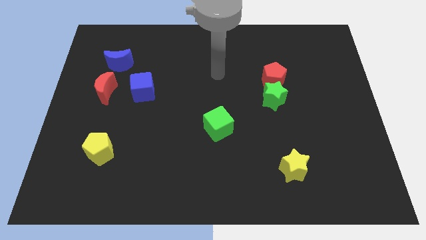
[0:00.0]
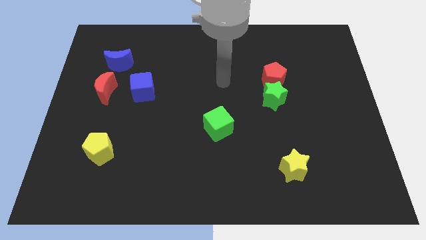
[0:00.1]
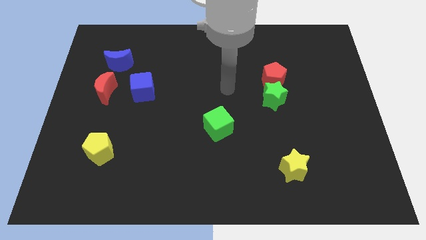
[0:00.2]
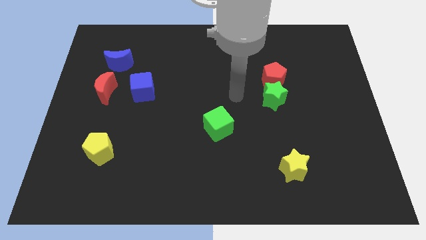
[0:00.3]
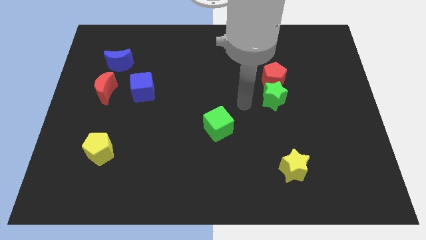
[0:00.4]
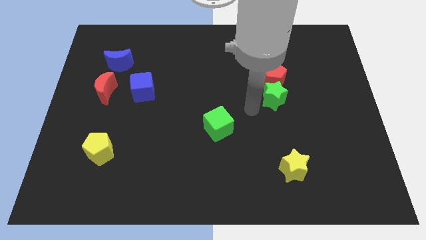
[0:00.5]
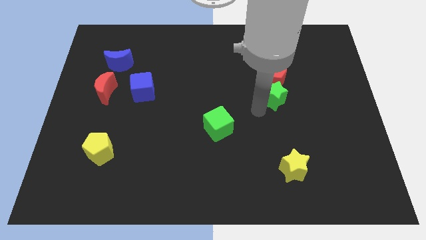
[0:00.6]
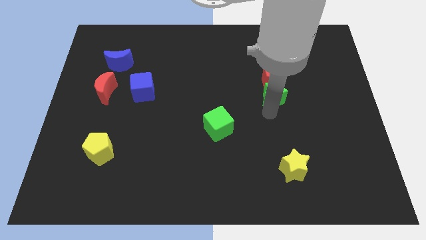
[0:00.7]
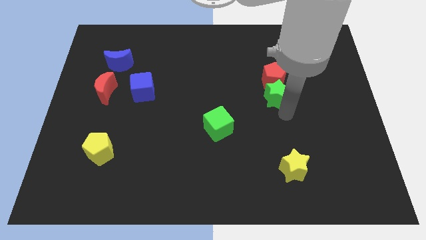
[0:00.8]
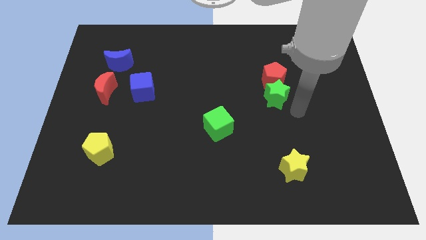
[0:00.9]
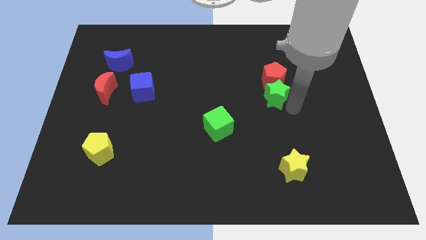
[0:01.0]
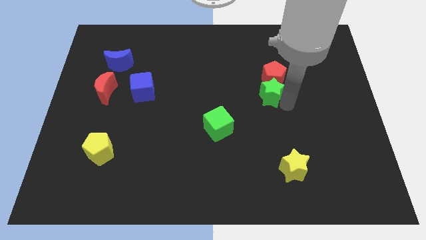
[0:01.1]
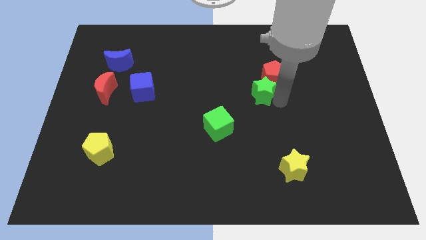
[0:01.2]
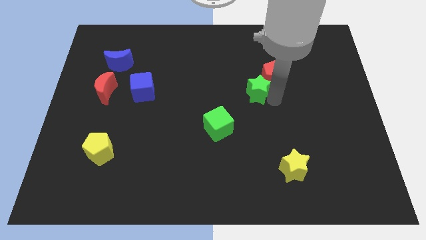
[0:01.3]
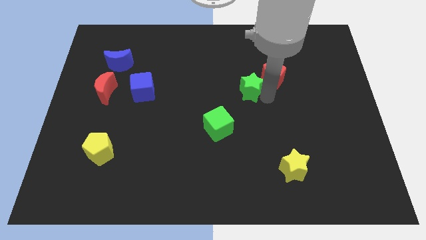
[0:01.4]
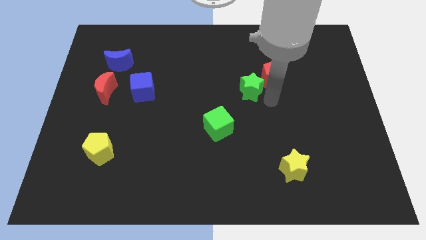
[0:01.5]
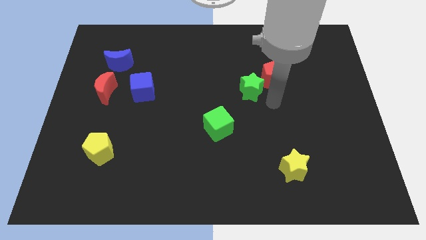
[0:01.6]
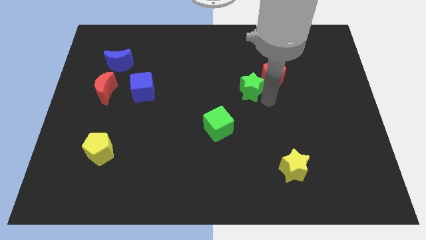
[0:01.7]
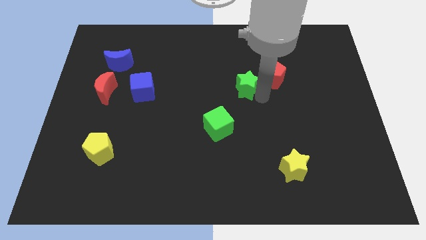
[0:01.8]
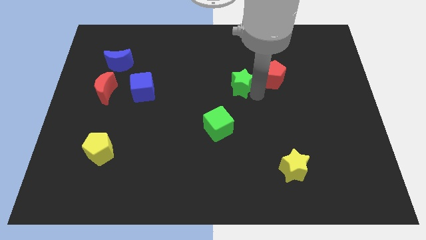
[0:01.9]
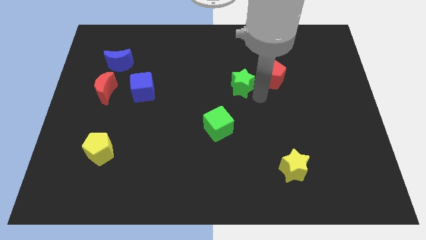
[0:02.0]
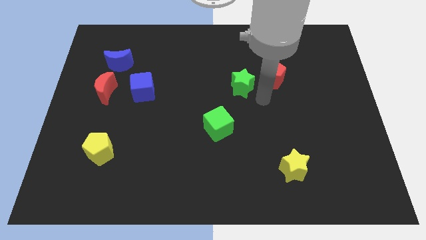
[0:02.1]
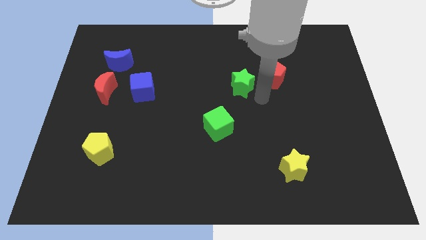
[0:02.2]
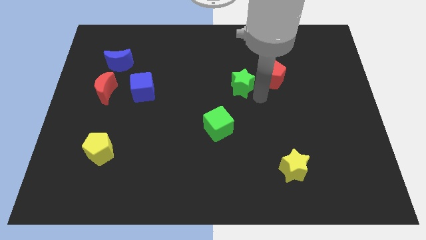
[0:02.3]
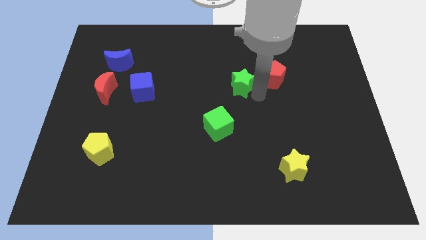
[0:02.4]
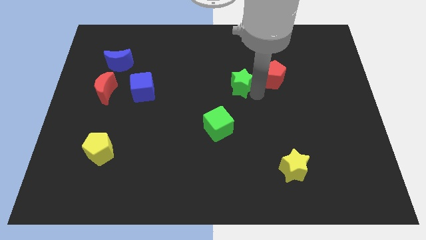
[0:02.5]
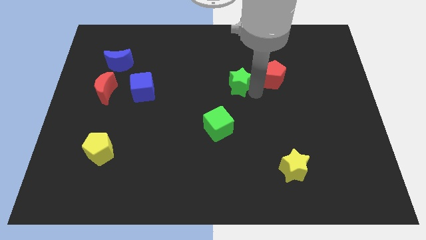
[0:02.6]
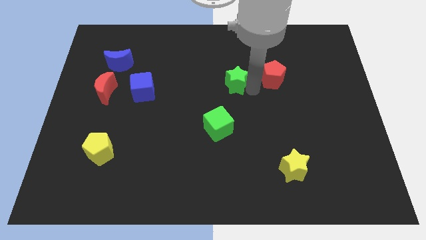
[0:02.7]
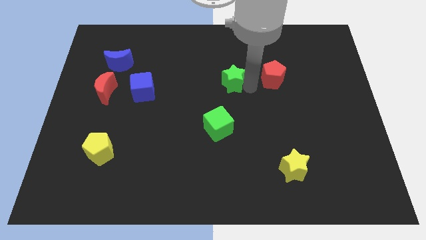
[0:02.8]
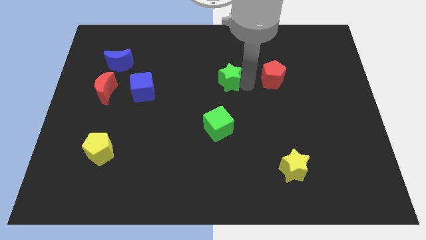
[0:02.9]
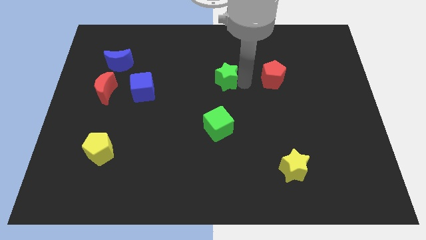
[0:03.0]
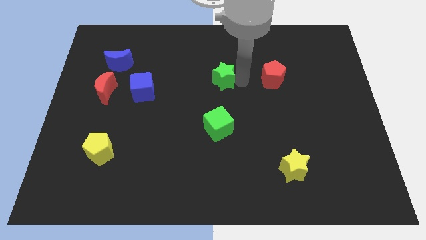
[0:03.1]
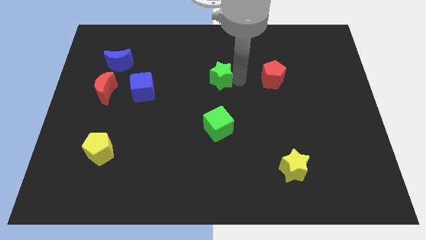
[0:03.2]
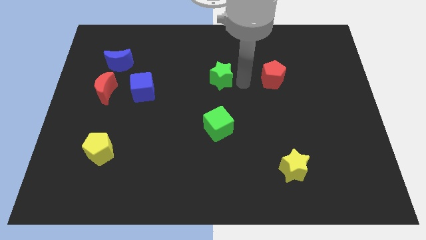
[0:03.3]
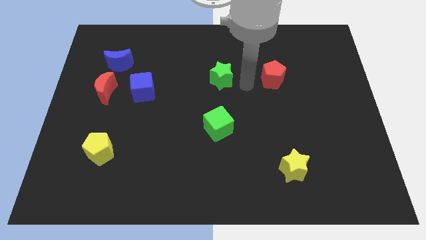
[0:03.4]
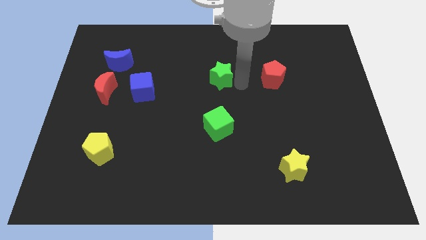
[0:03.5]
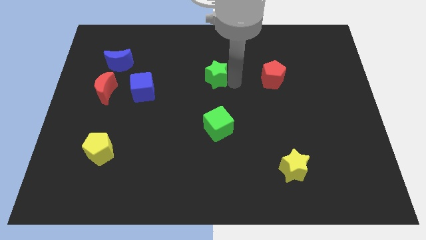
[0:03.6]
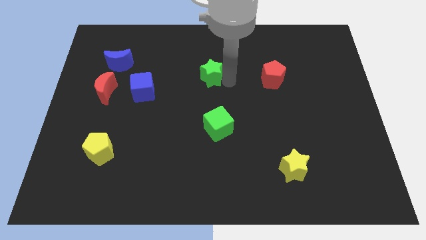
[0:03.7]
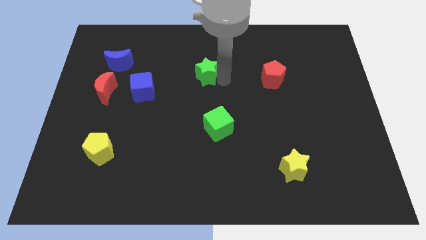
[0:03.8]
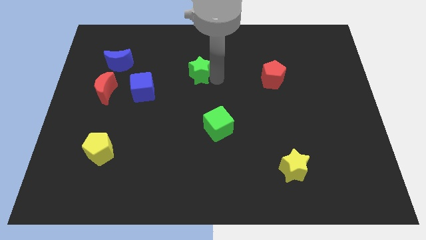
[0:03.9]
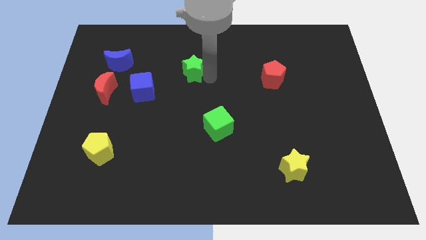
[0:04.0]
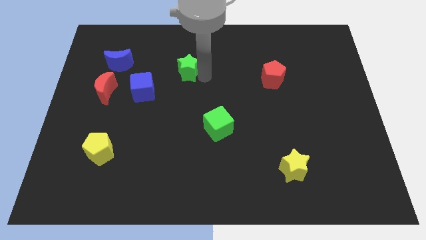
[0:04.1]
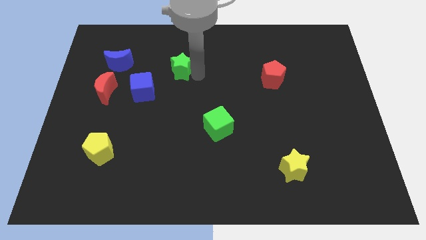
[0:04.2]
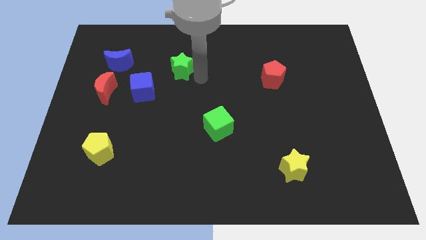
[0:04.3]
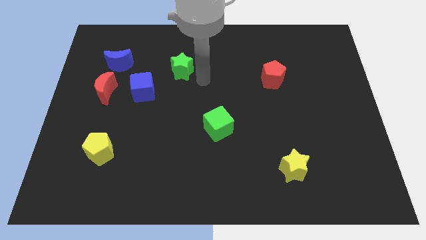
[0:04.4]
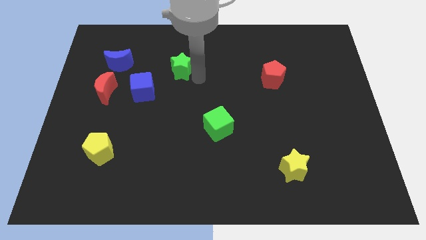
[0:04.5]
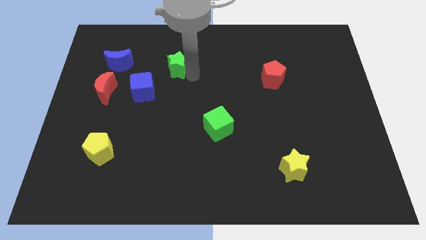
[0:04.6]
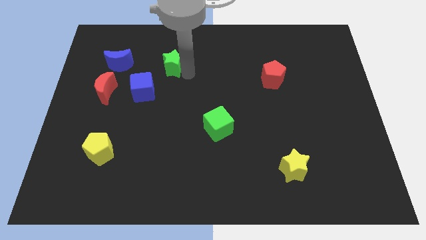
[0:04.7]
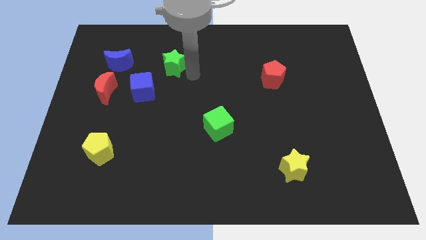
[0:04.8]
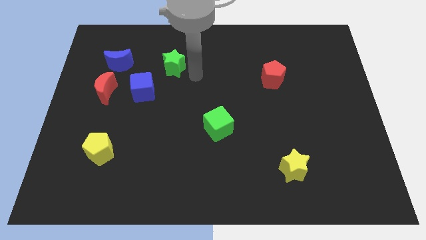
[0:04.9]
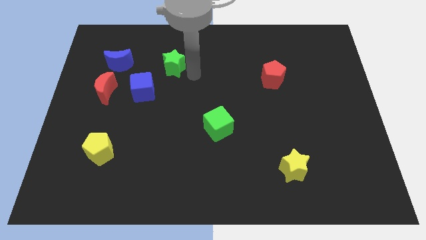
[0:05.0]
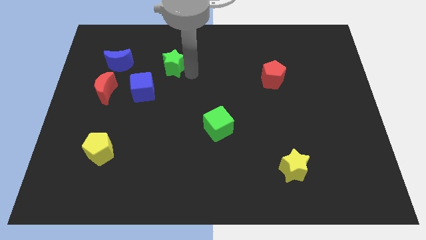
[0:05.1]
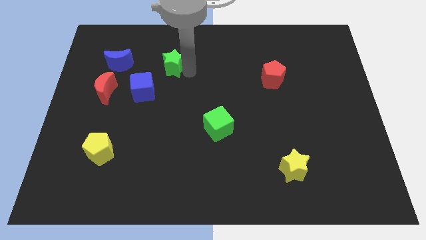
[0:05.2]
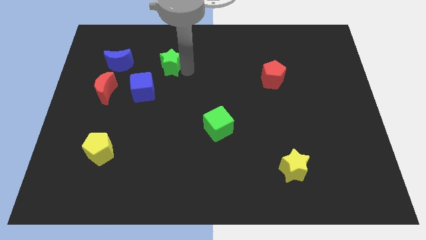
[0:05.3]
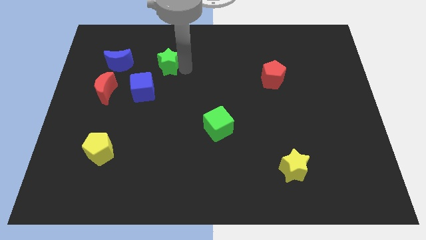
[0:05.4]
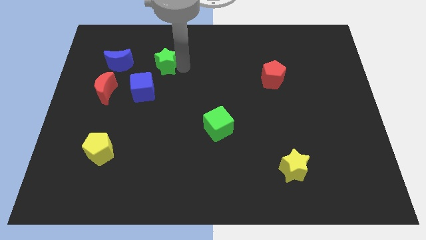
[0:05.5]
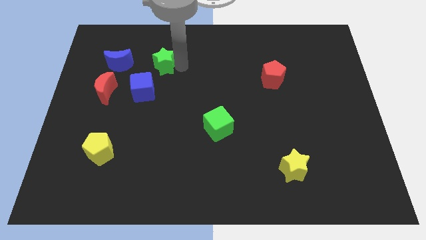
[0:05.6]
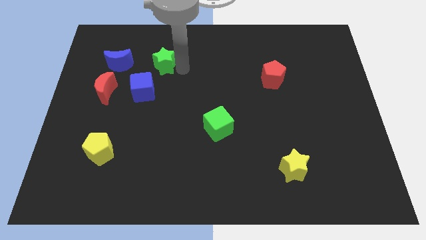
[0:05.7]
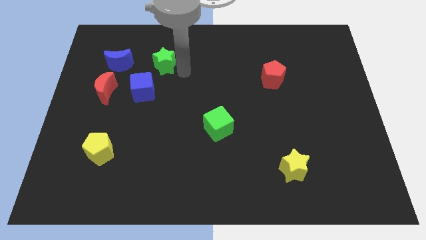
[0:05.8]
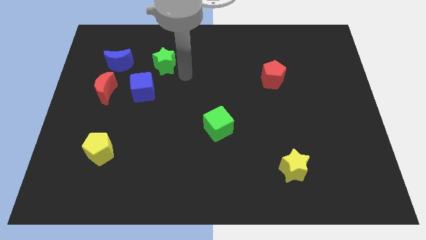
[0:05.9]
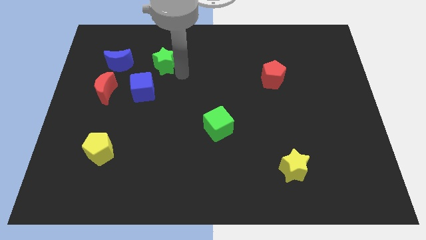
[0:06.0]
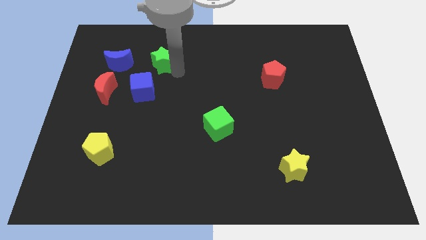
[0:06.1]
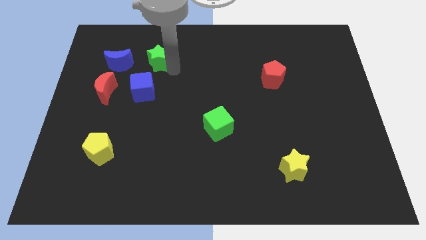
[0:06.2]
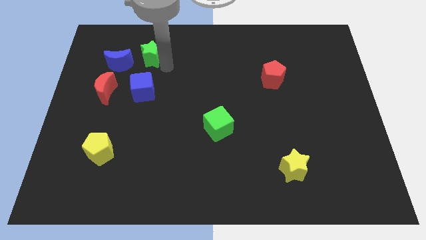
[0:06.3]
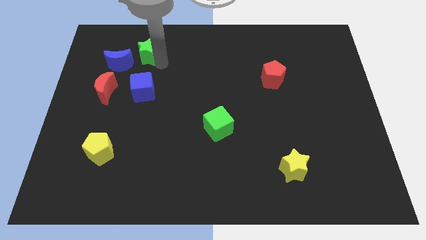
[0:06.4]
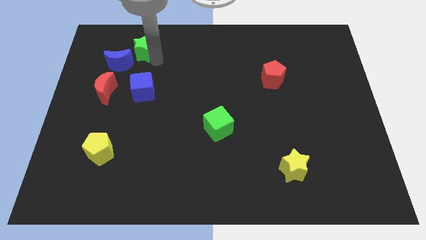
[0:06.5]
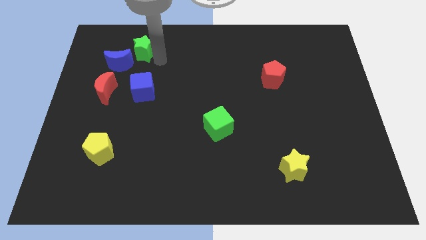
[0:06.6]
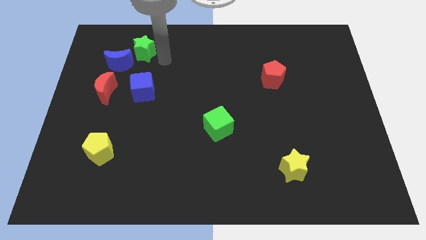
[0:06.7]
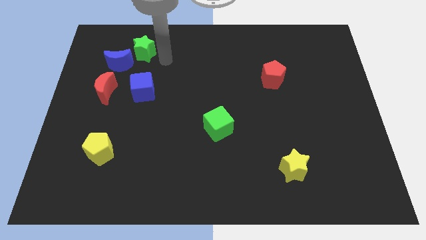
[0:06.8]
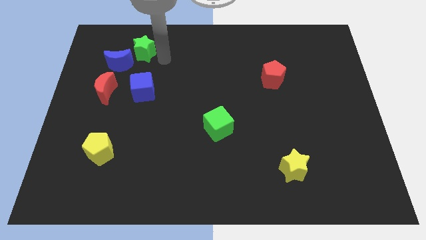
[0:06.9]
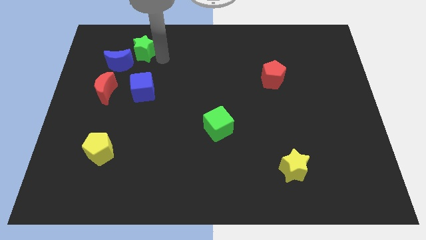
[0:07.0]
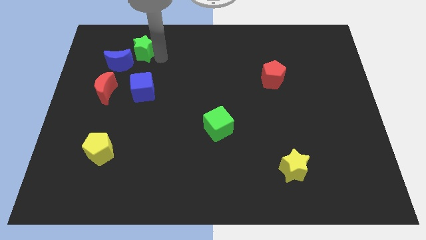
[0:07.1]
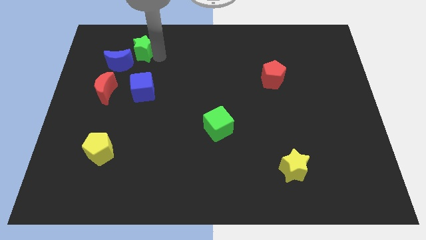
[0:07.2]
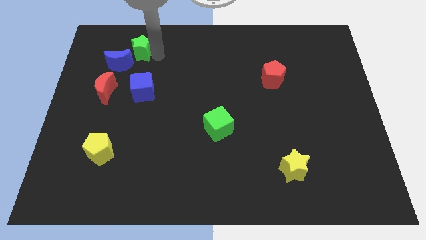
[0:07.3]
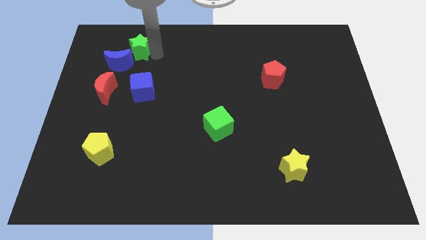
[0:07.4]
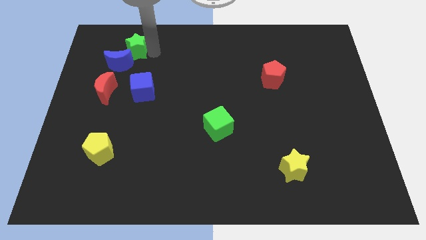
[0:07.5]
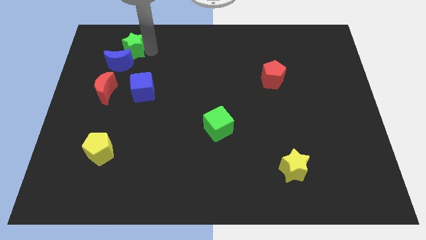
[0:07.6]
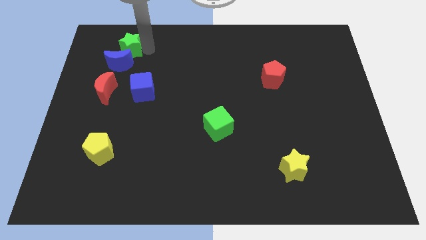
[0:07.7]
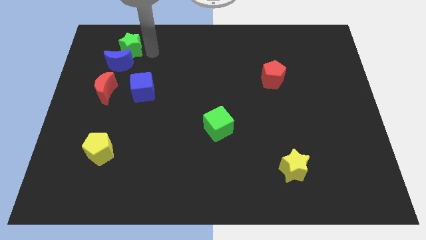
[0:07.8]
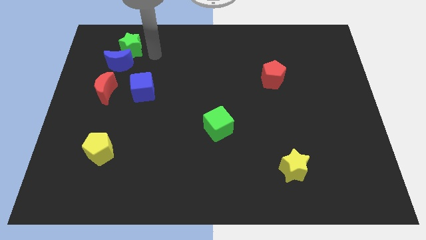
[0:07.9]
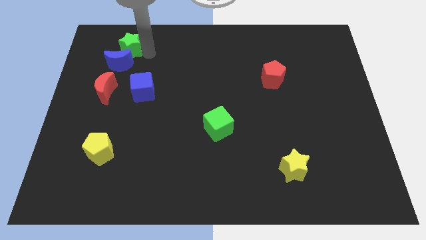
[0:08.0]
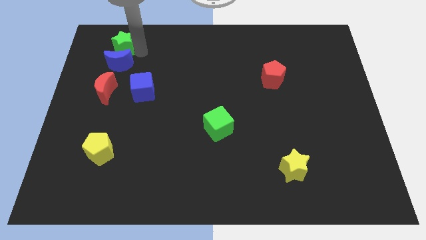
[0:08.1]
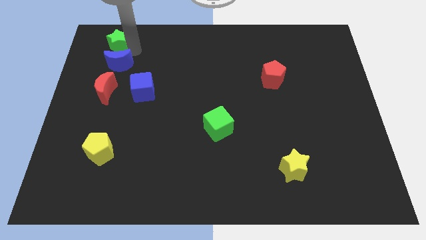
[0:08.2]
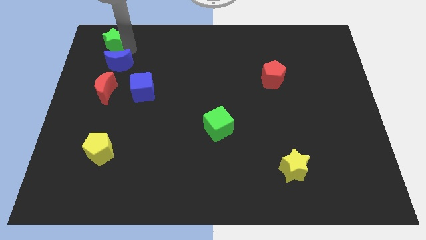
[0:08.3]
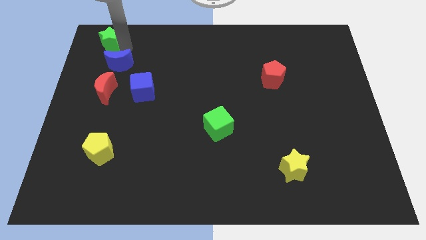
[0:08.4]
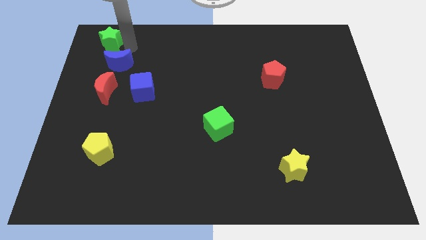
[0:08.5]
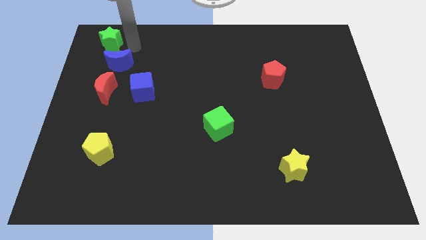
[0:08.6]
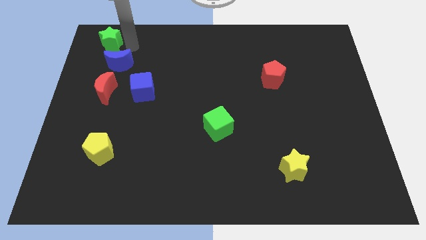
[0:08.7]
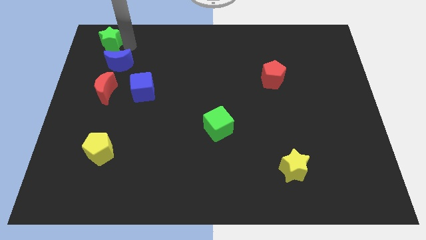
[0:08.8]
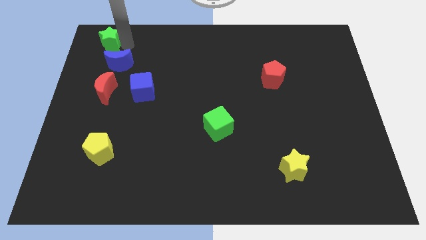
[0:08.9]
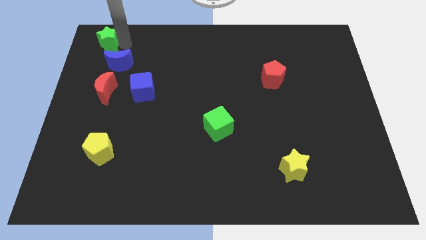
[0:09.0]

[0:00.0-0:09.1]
move the green star to the top left corner
